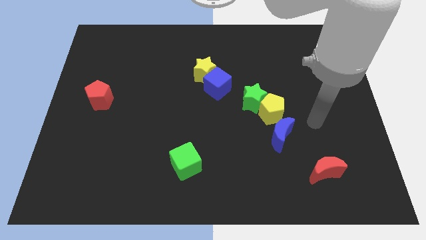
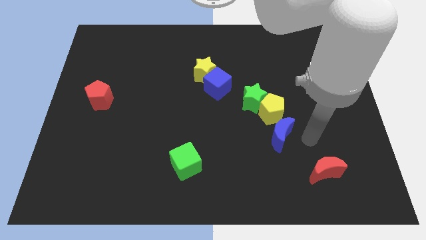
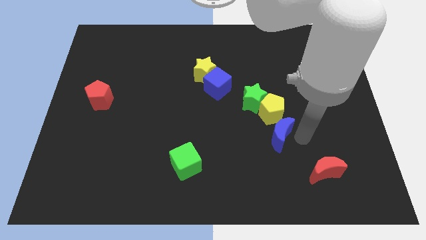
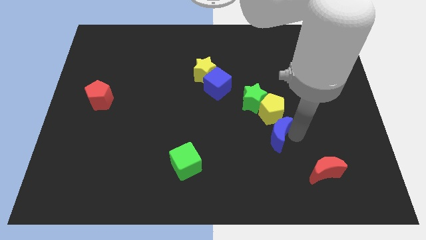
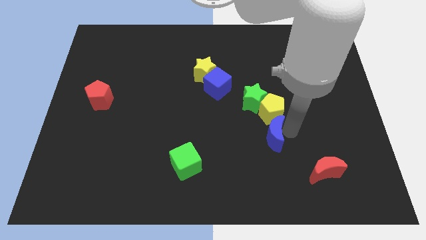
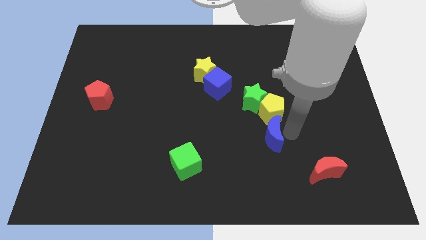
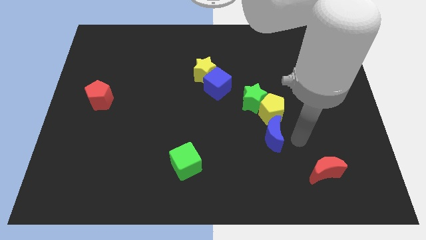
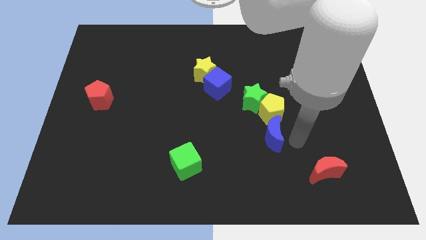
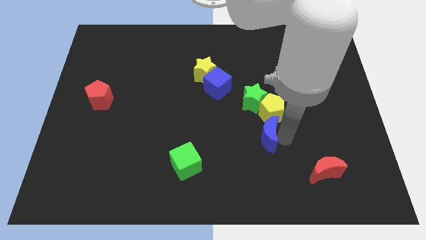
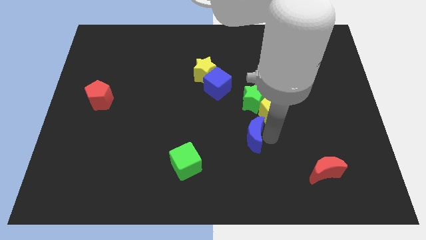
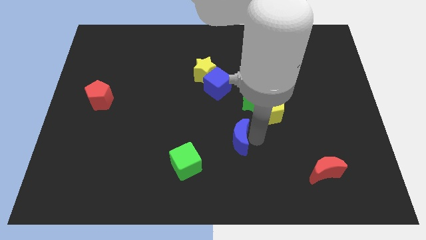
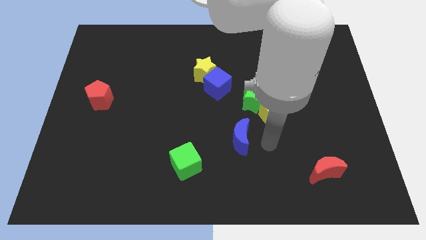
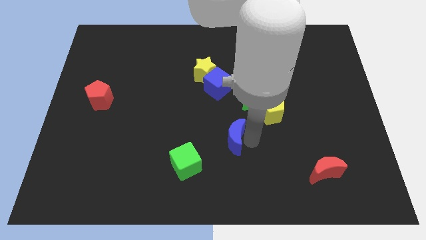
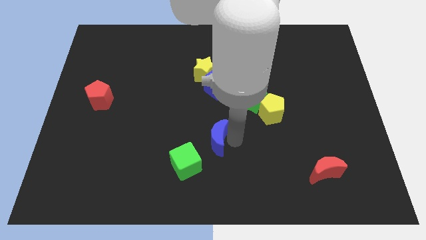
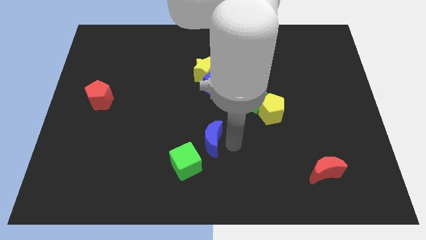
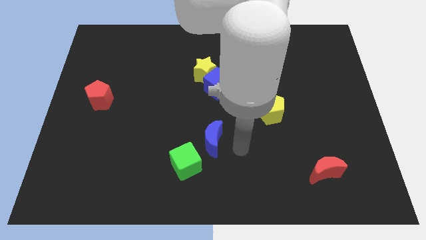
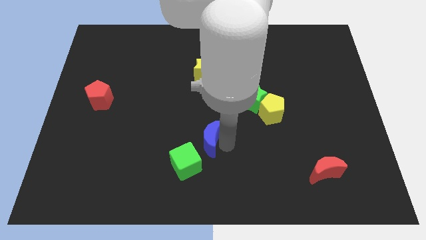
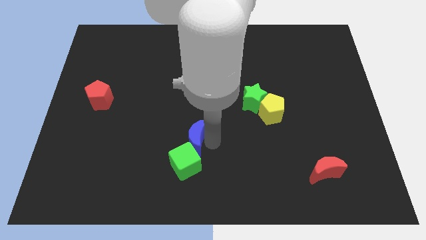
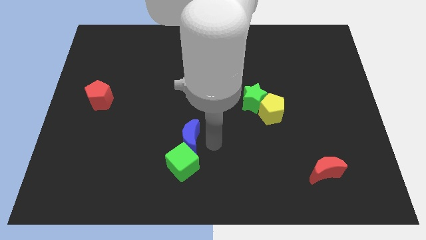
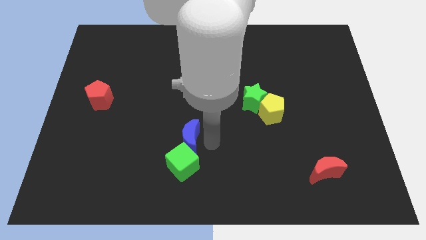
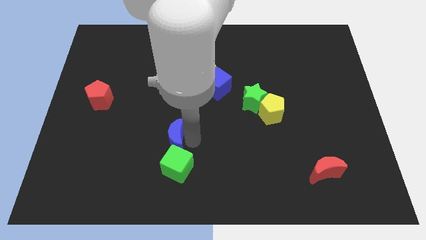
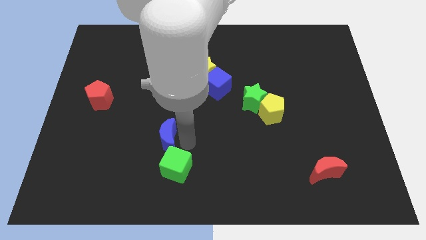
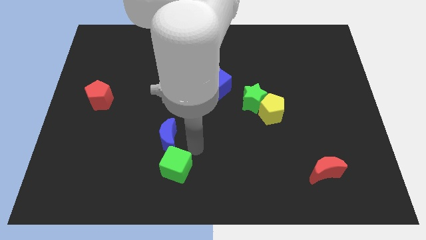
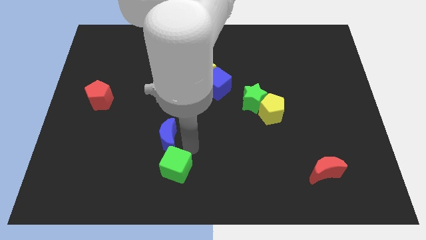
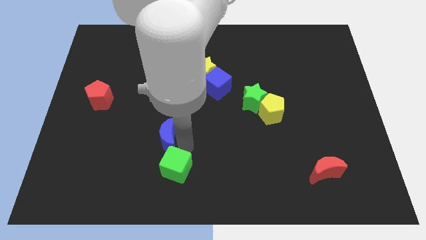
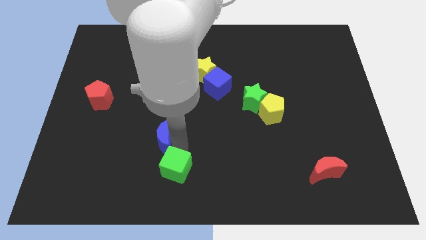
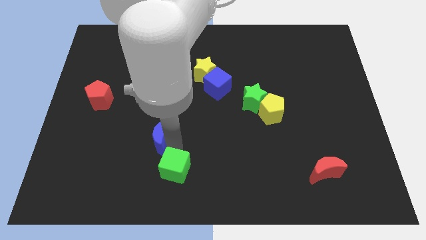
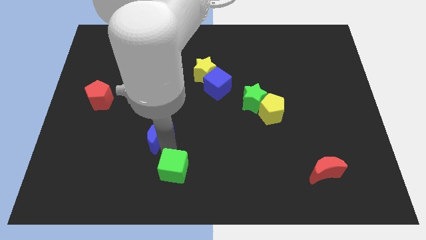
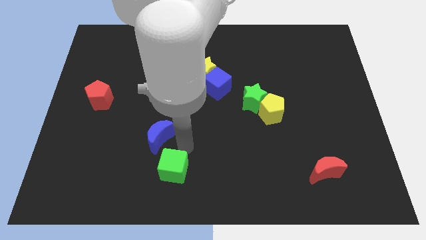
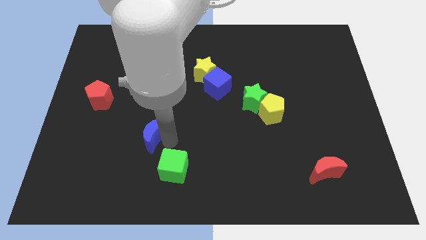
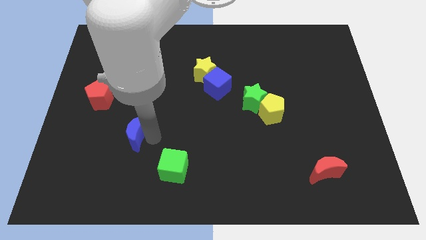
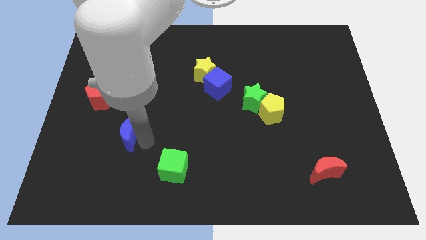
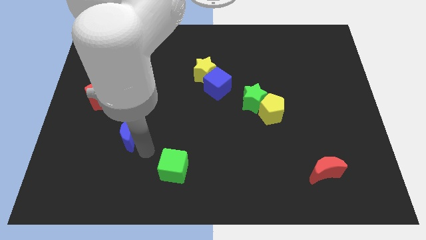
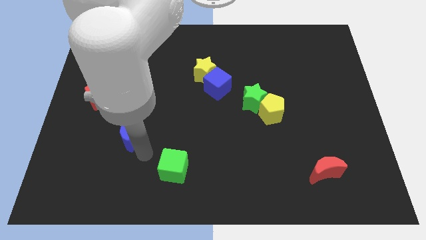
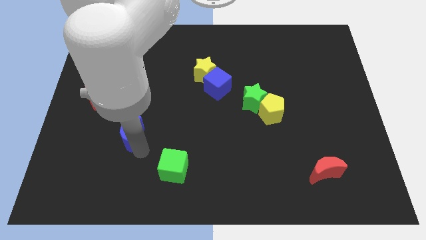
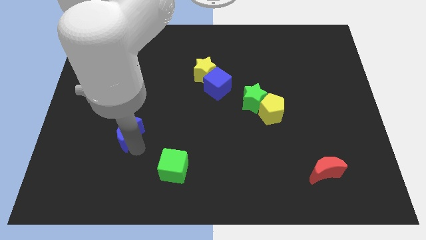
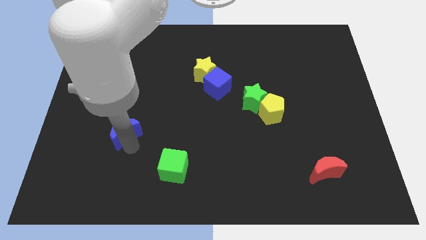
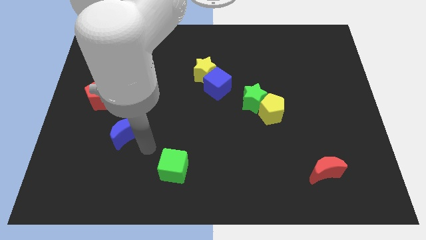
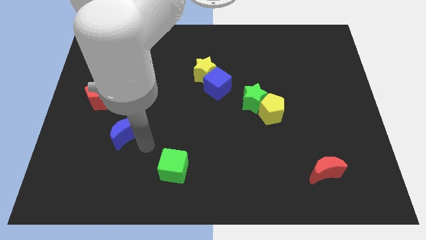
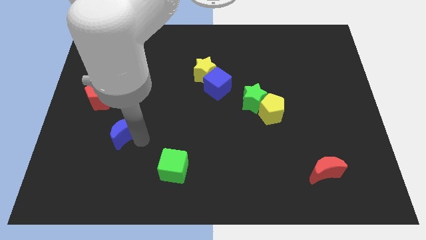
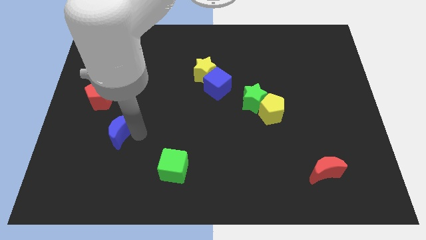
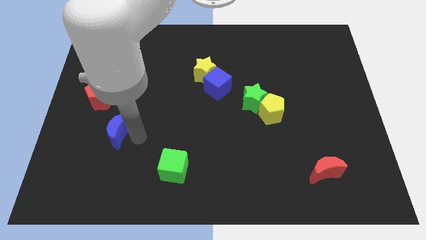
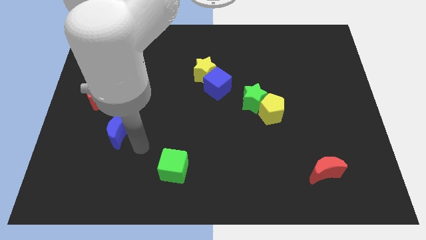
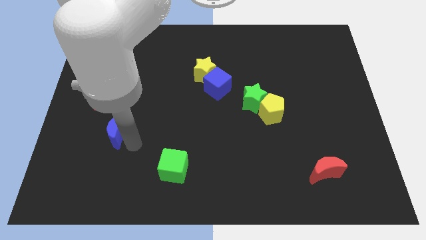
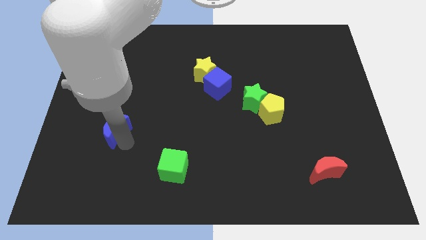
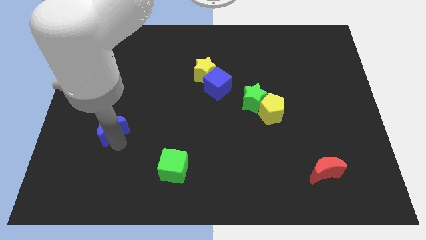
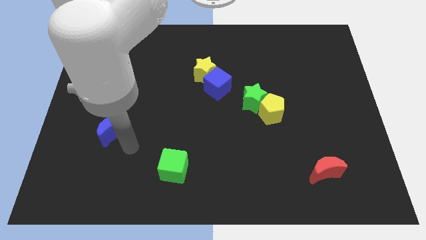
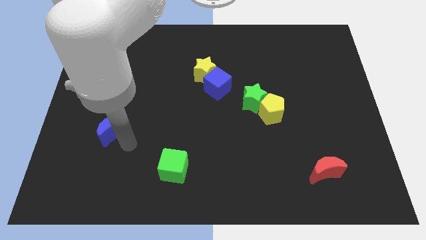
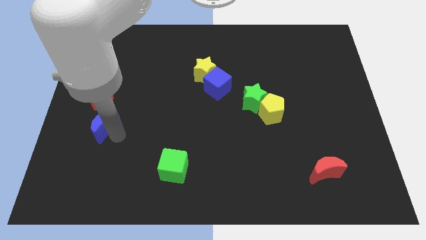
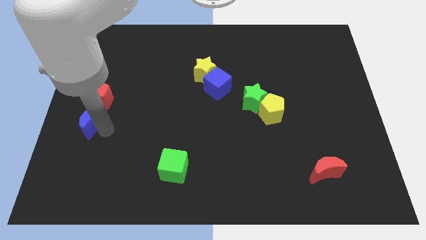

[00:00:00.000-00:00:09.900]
put the blue moon to the left side

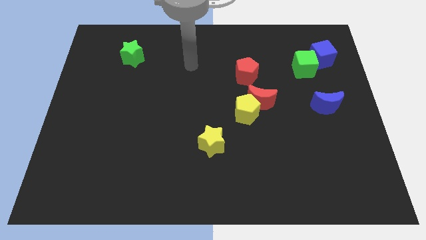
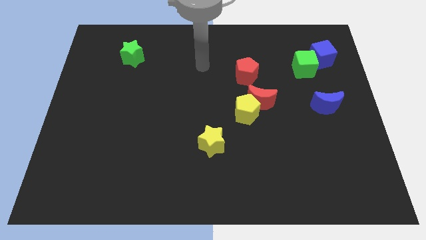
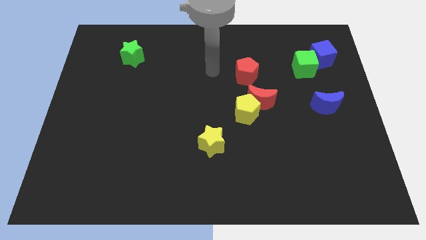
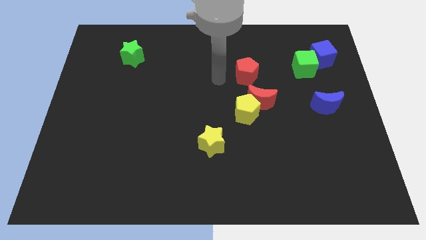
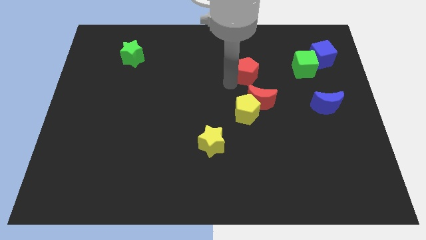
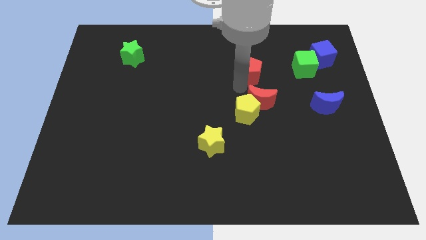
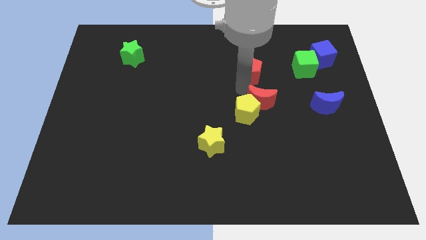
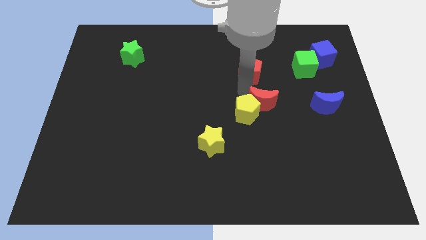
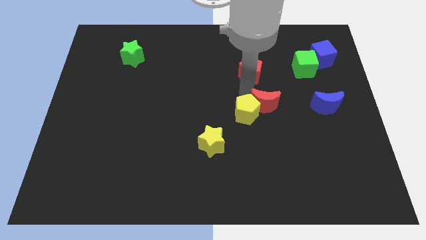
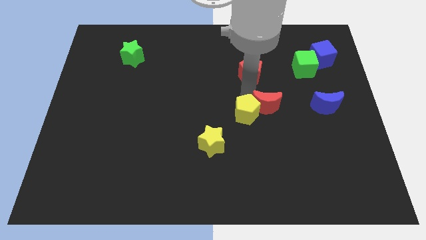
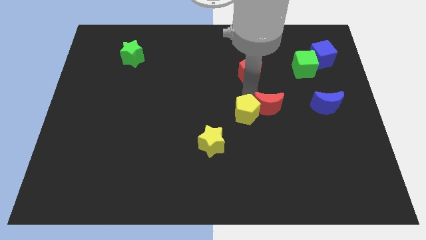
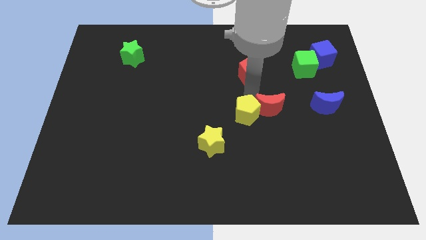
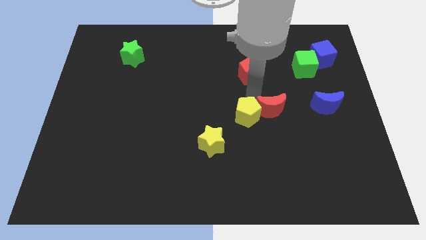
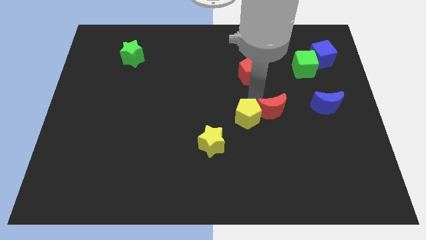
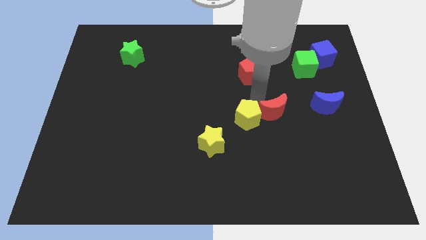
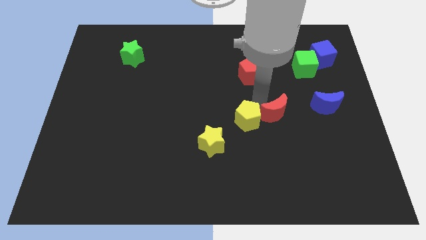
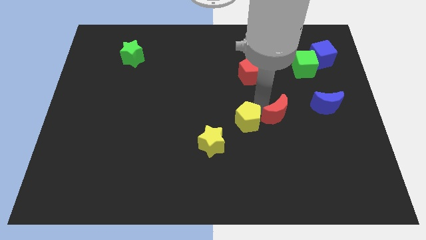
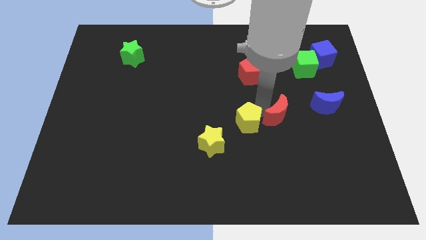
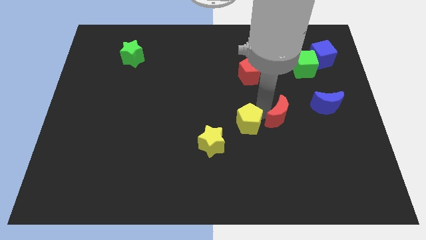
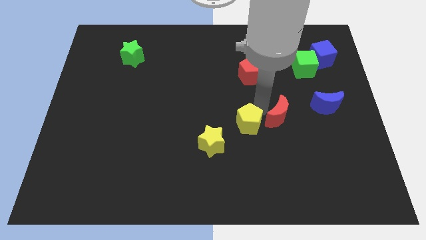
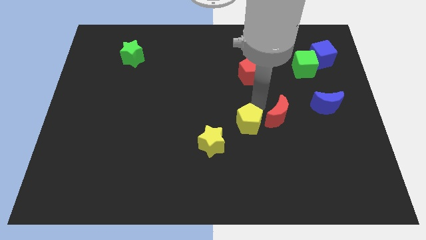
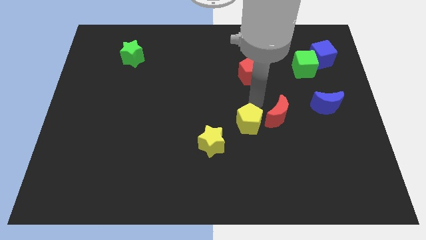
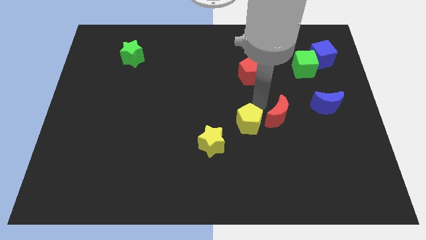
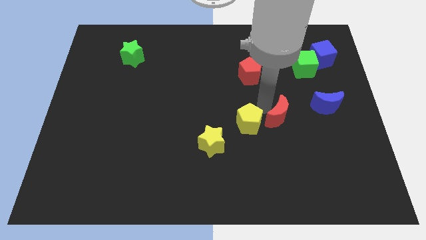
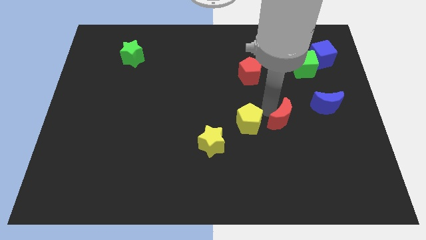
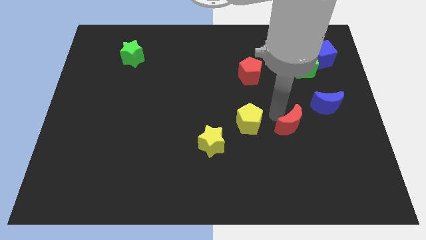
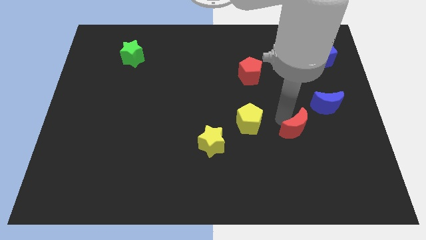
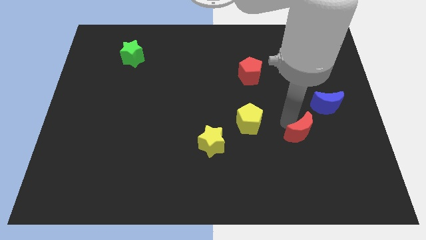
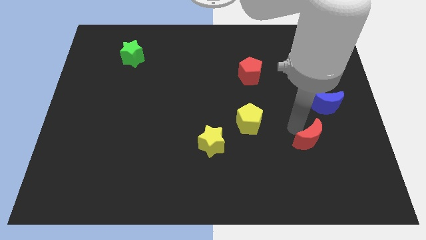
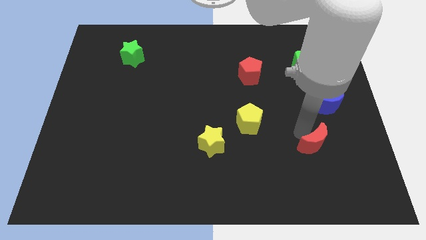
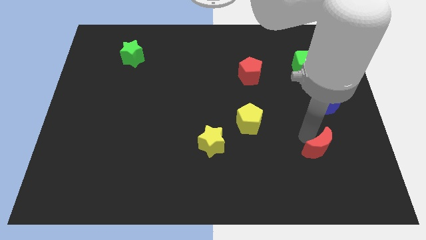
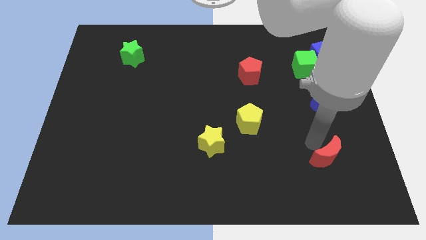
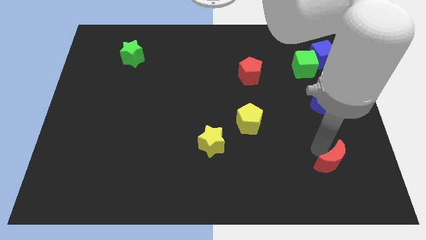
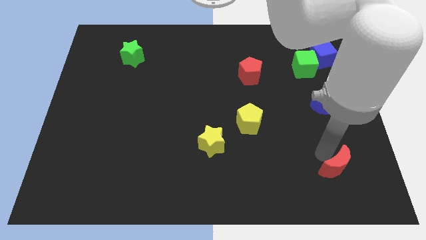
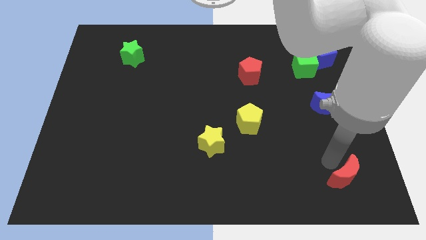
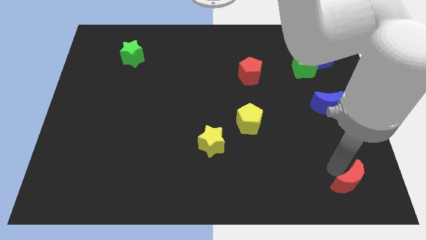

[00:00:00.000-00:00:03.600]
push the red moon to the bottom right
